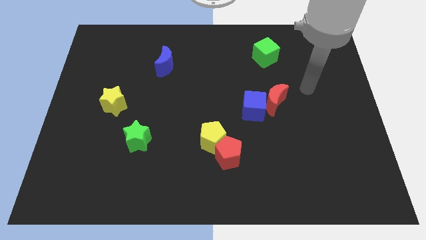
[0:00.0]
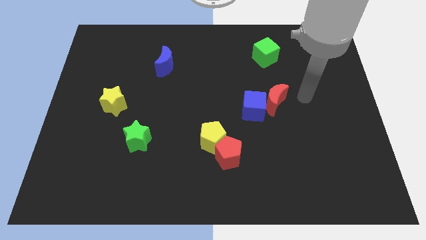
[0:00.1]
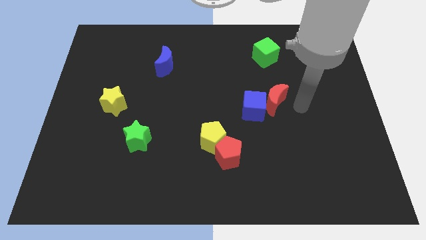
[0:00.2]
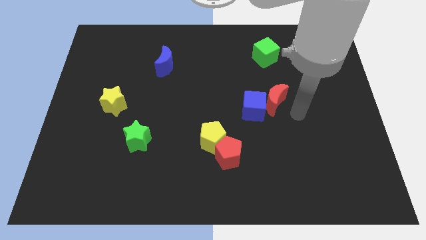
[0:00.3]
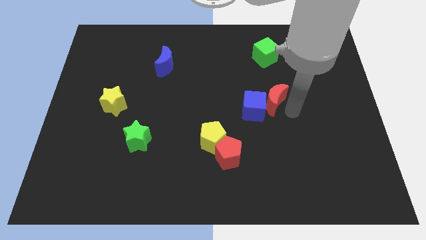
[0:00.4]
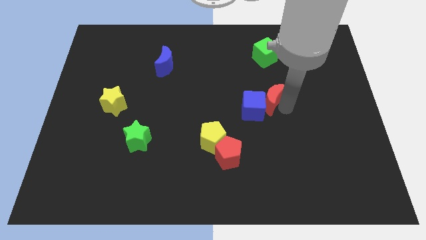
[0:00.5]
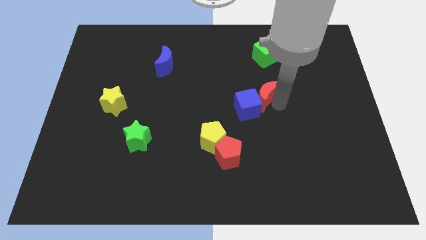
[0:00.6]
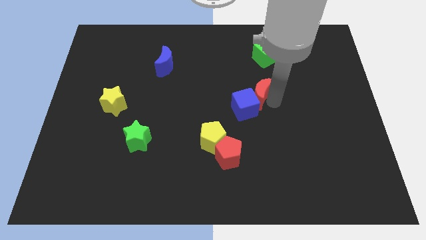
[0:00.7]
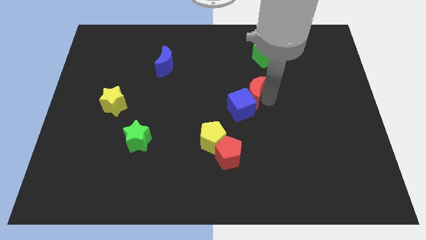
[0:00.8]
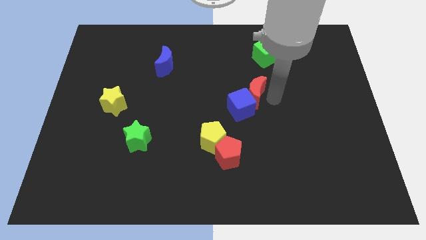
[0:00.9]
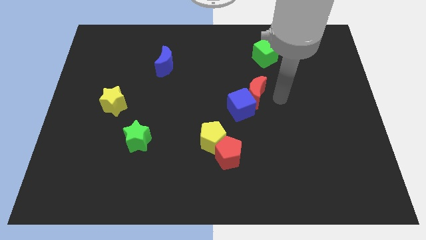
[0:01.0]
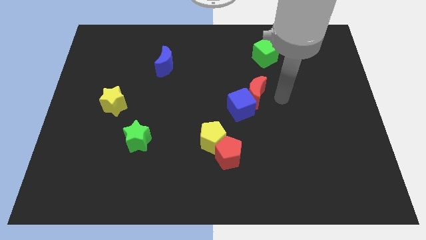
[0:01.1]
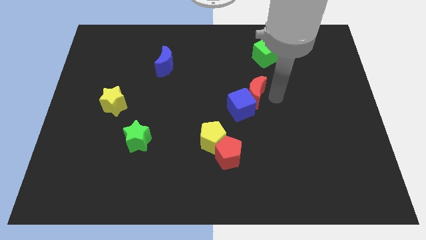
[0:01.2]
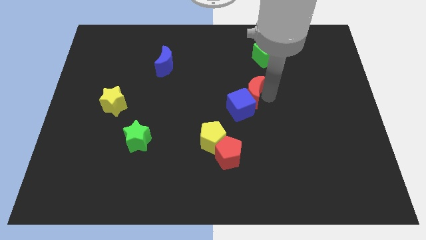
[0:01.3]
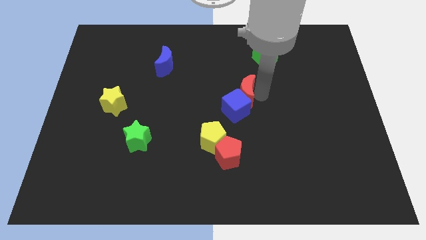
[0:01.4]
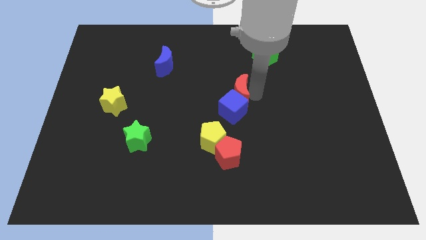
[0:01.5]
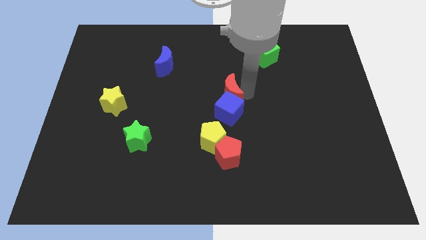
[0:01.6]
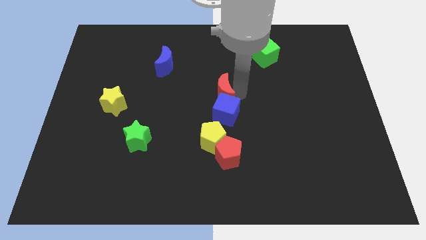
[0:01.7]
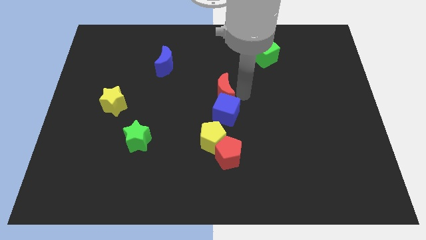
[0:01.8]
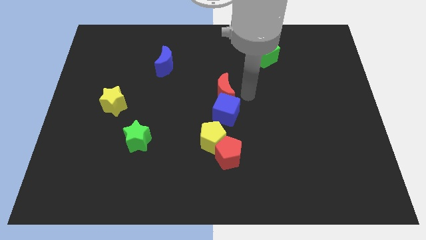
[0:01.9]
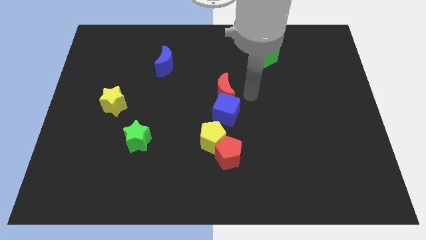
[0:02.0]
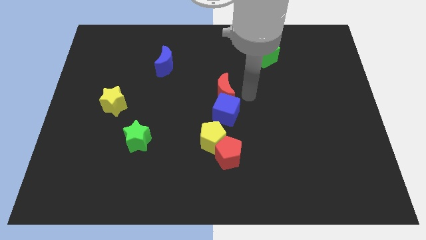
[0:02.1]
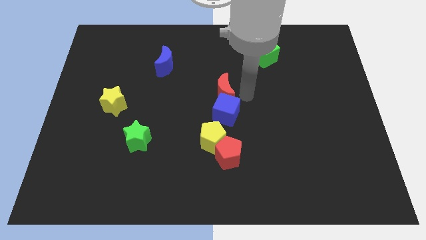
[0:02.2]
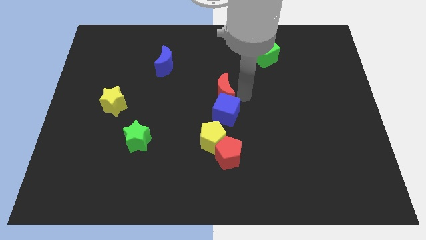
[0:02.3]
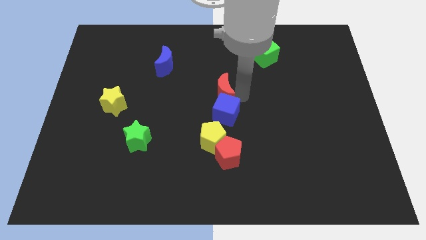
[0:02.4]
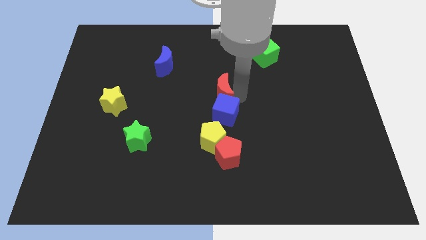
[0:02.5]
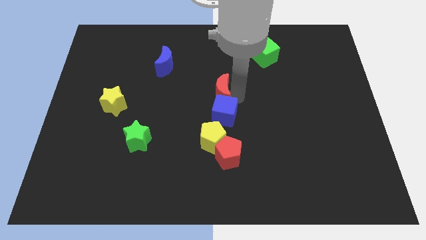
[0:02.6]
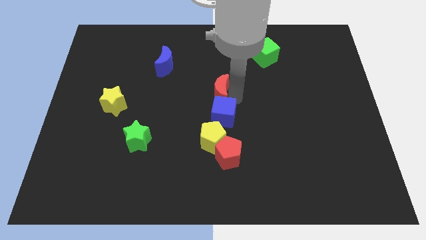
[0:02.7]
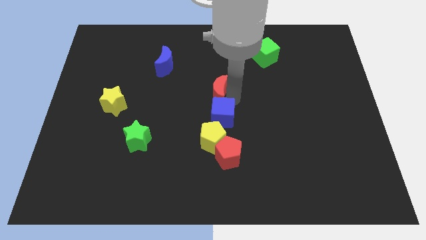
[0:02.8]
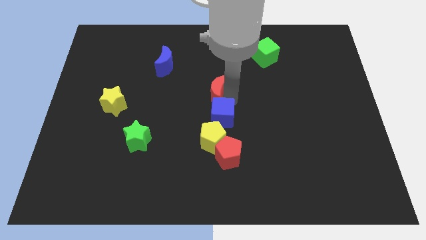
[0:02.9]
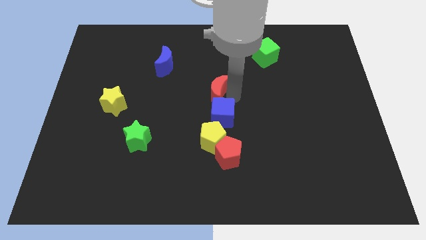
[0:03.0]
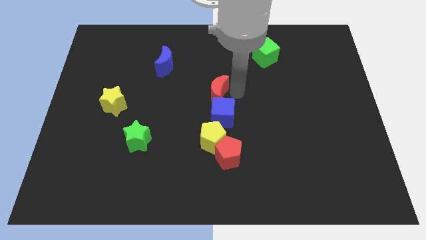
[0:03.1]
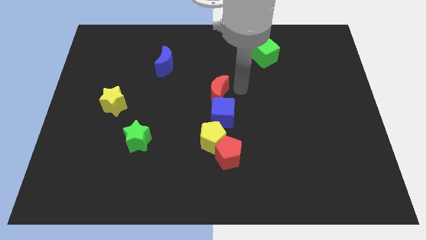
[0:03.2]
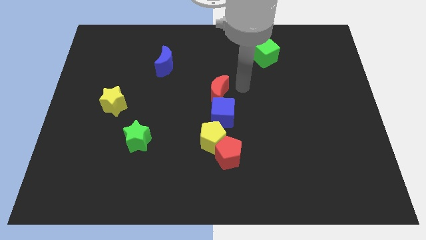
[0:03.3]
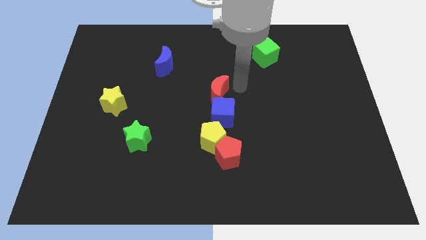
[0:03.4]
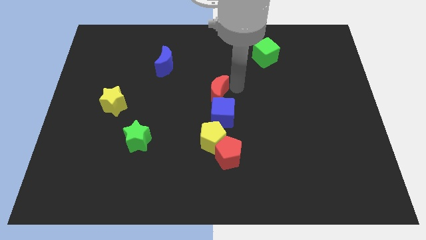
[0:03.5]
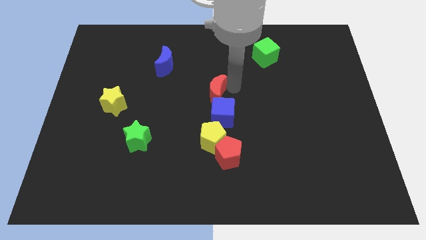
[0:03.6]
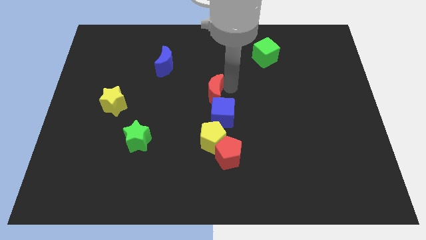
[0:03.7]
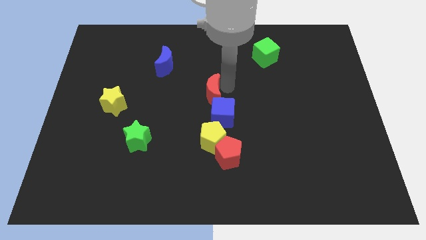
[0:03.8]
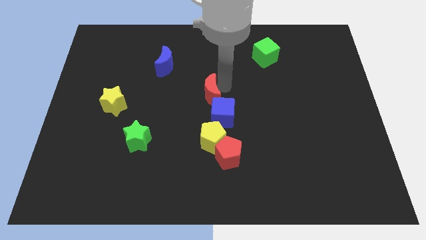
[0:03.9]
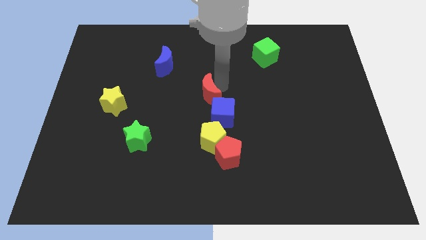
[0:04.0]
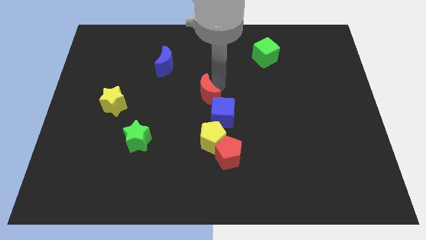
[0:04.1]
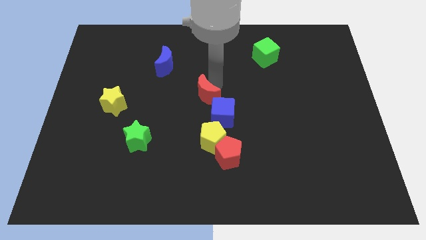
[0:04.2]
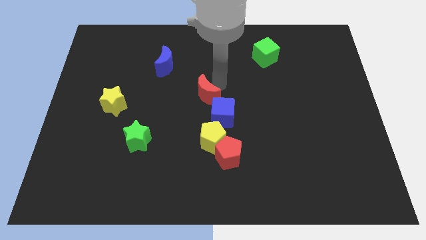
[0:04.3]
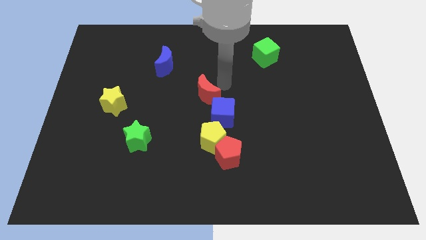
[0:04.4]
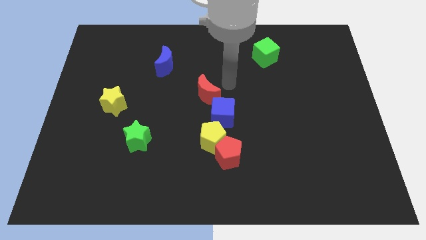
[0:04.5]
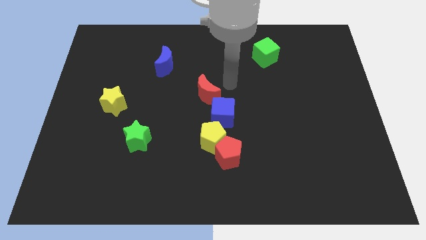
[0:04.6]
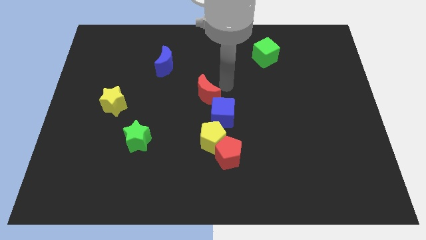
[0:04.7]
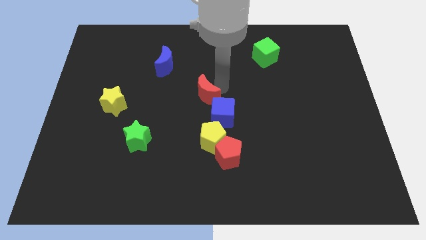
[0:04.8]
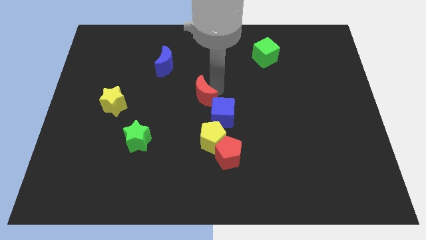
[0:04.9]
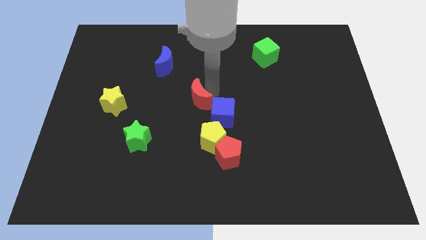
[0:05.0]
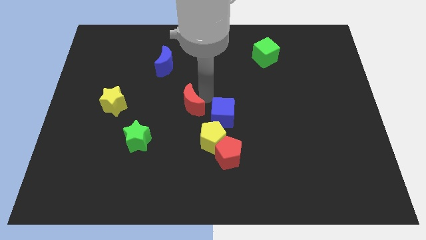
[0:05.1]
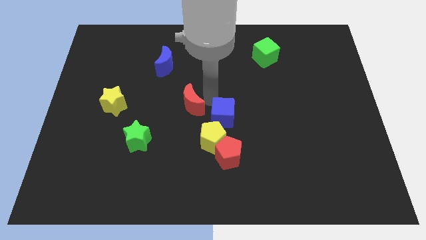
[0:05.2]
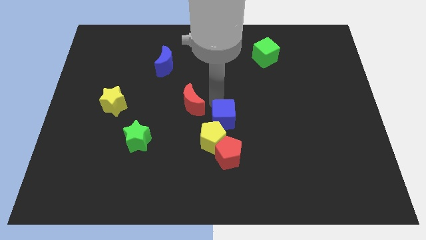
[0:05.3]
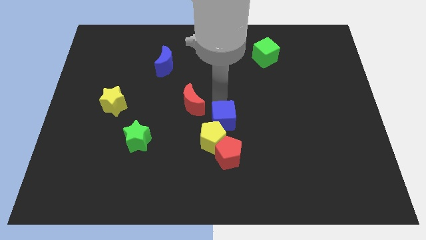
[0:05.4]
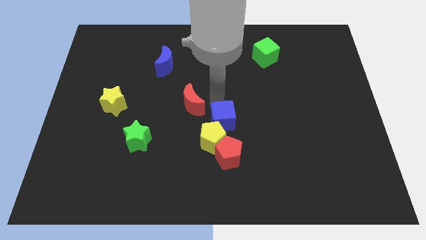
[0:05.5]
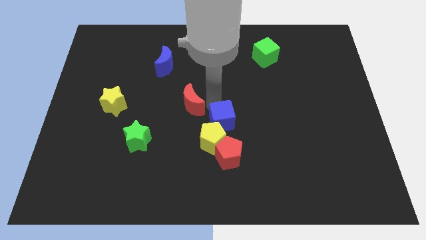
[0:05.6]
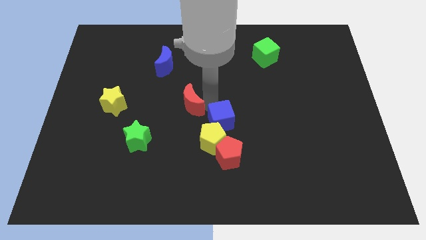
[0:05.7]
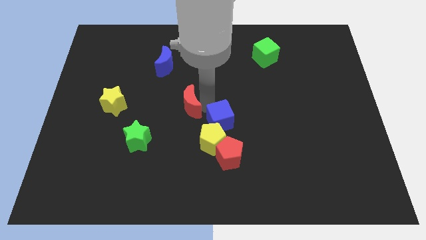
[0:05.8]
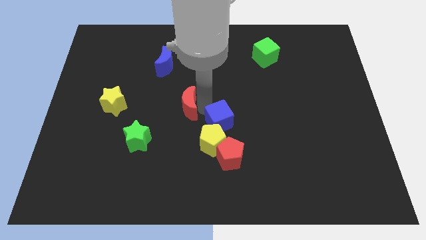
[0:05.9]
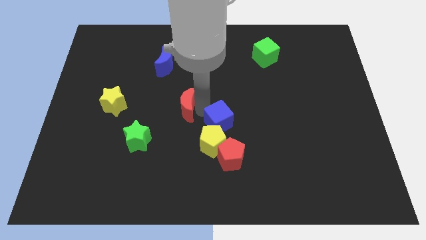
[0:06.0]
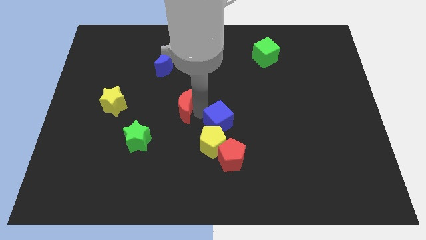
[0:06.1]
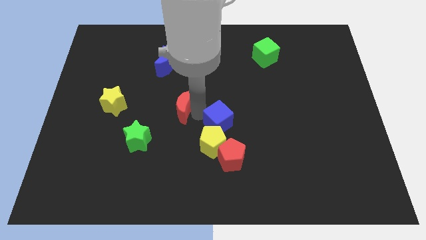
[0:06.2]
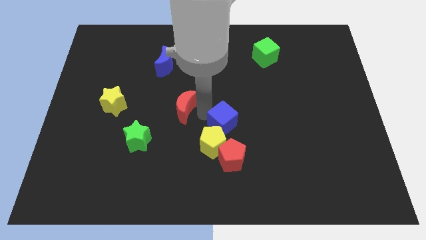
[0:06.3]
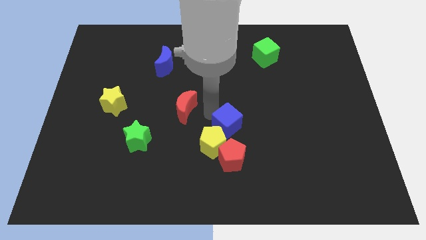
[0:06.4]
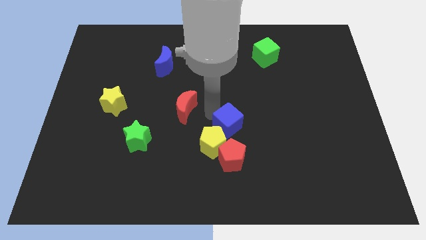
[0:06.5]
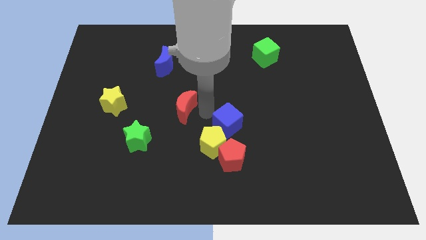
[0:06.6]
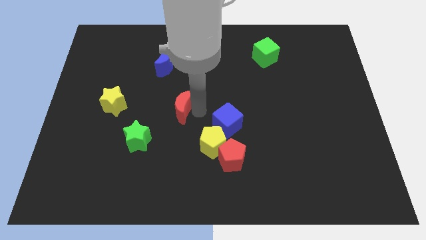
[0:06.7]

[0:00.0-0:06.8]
move the red moon to the right side of the yellow star
